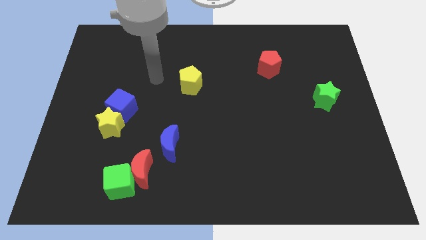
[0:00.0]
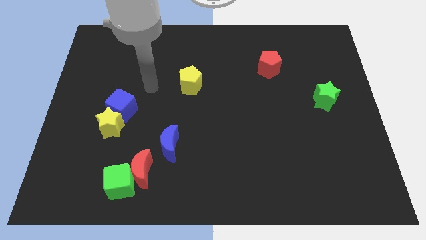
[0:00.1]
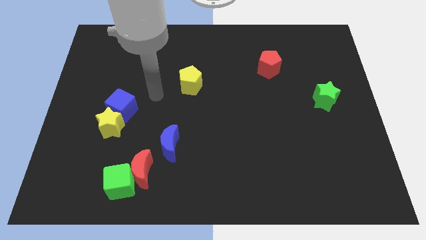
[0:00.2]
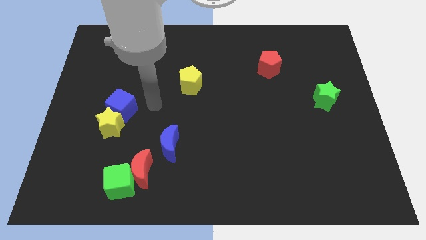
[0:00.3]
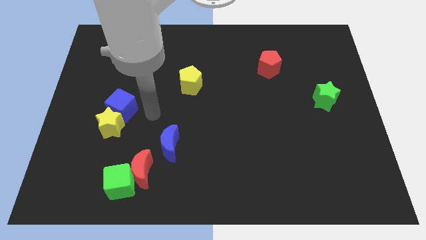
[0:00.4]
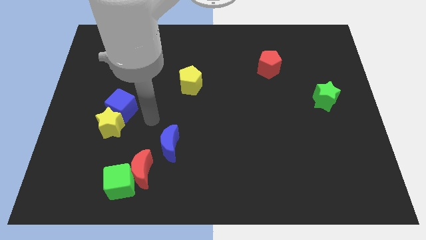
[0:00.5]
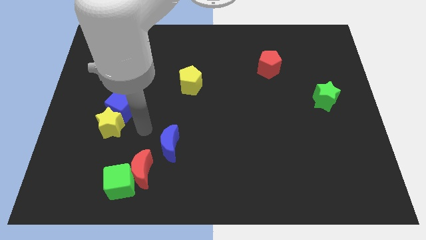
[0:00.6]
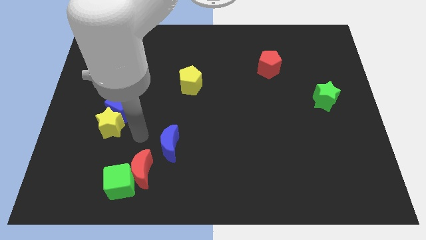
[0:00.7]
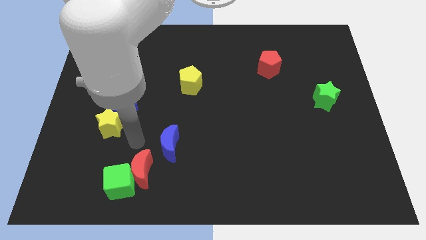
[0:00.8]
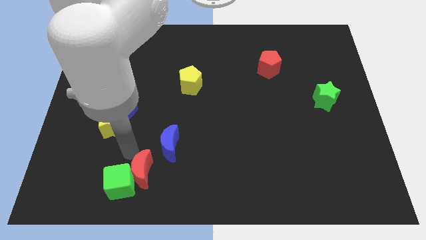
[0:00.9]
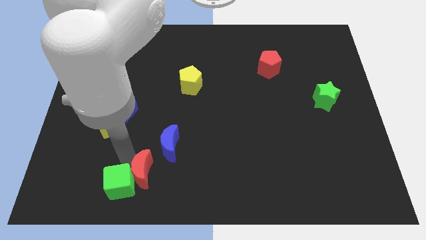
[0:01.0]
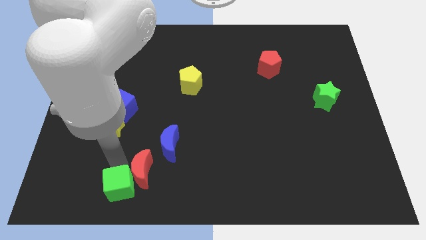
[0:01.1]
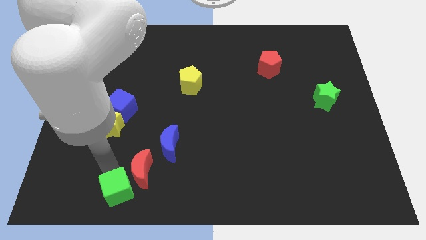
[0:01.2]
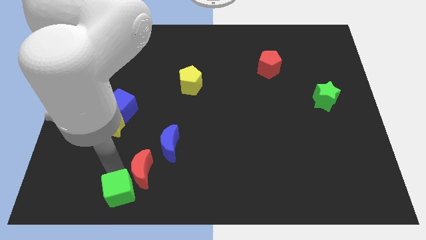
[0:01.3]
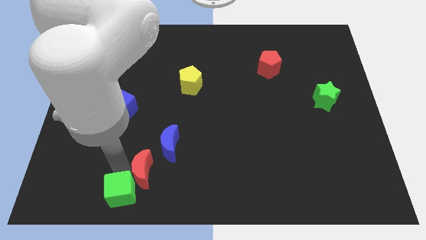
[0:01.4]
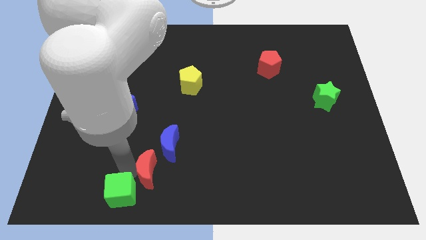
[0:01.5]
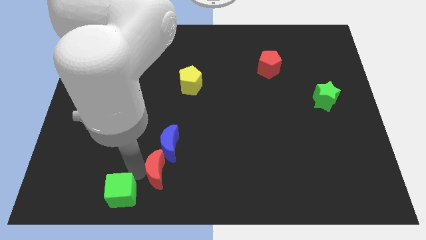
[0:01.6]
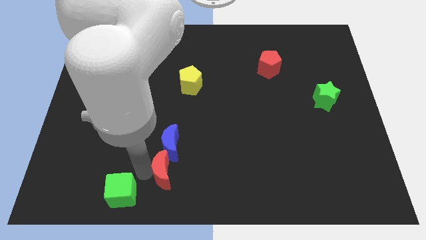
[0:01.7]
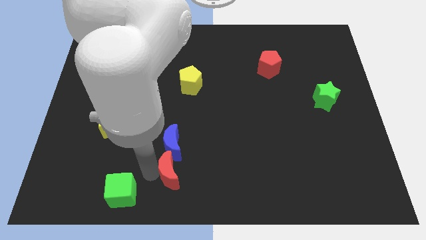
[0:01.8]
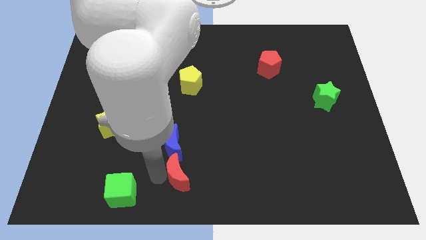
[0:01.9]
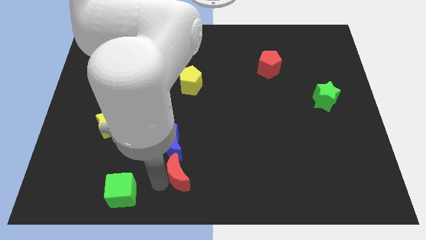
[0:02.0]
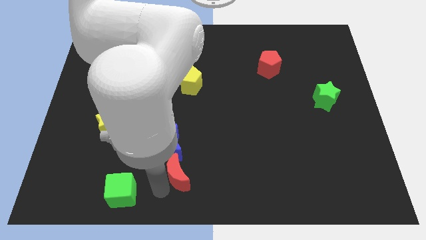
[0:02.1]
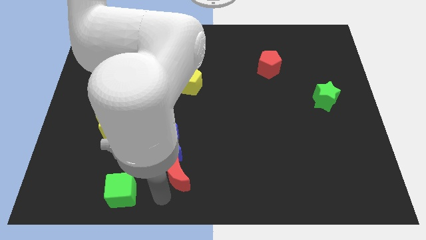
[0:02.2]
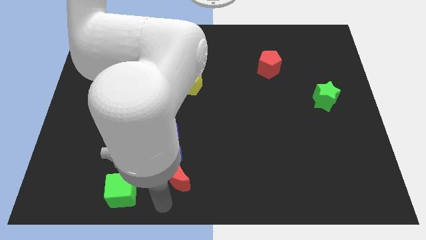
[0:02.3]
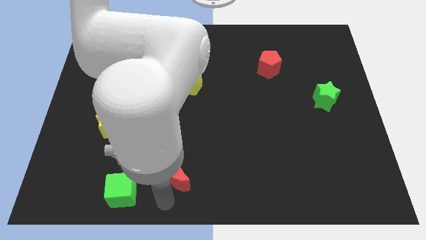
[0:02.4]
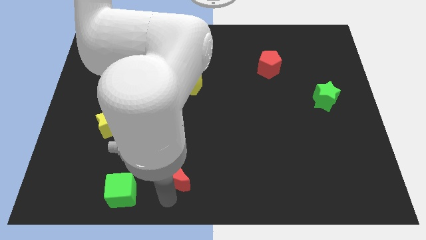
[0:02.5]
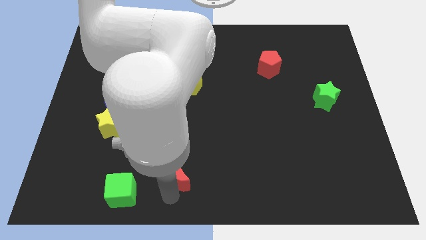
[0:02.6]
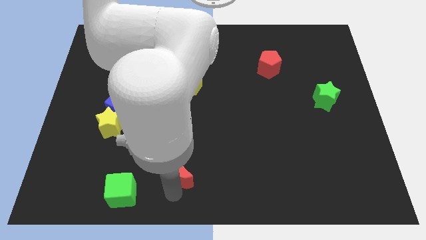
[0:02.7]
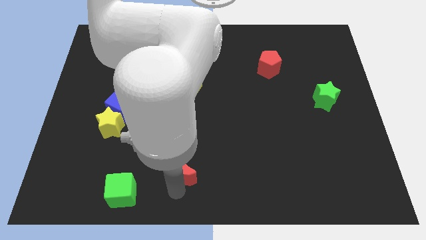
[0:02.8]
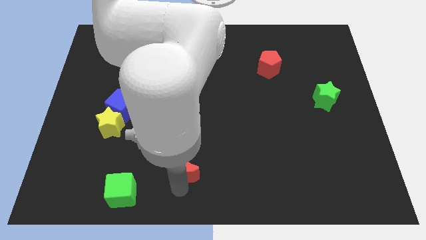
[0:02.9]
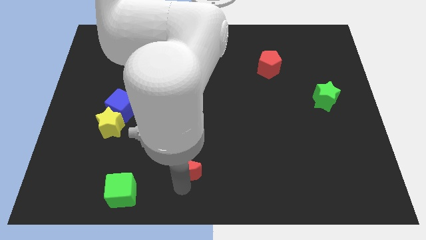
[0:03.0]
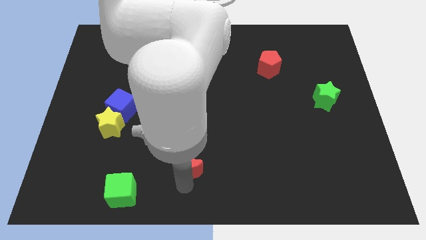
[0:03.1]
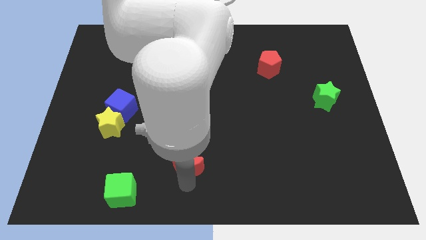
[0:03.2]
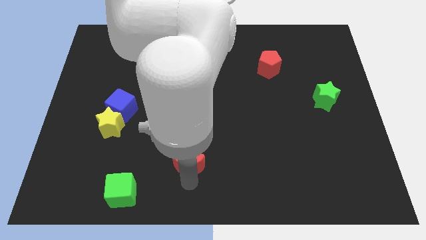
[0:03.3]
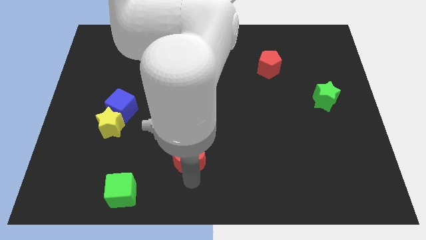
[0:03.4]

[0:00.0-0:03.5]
move the red moon diagonally up and to the right slightly

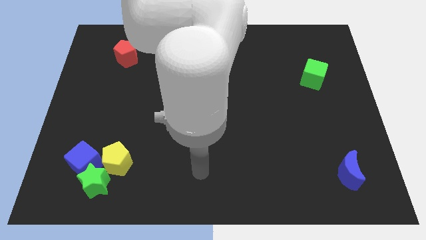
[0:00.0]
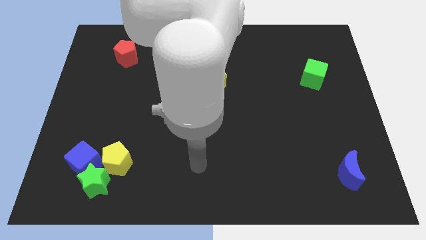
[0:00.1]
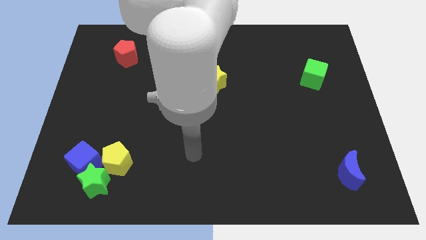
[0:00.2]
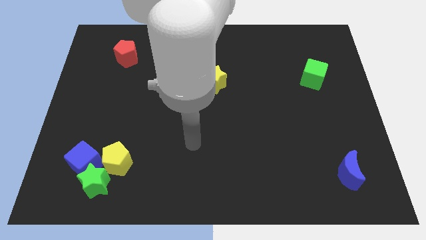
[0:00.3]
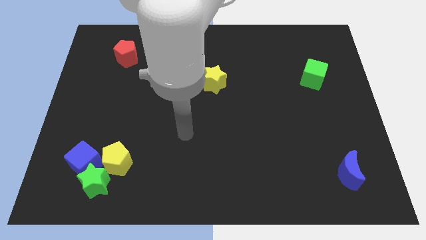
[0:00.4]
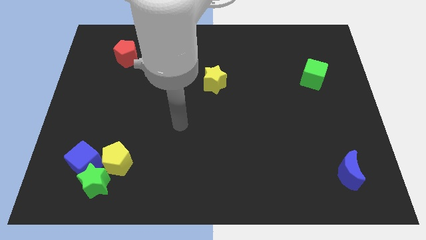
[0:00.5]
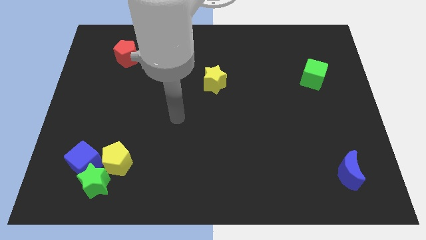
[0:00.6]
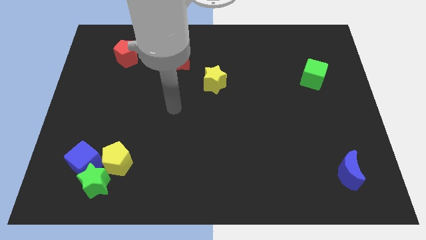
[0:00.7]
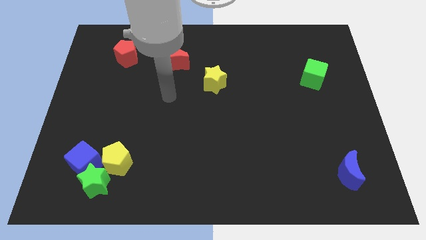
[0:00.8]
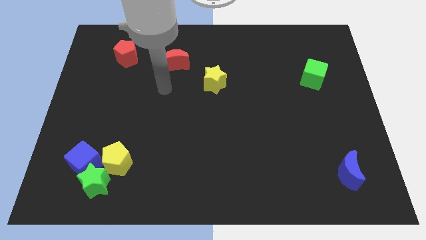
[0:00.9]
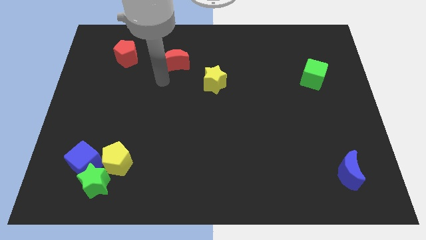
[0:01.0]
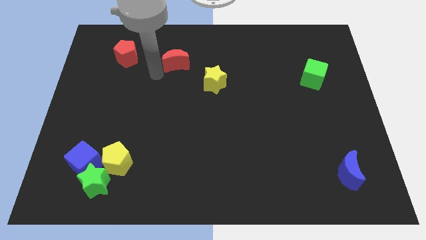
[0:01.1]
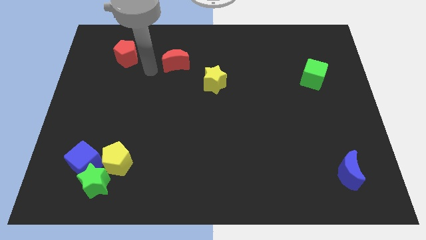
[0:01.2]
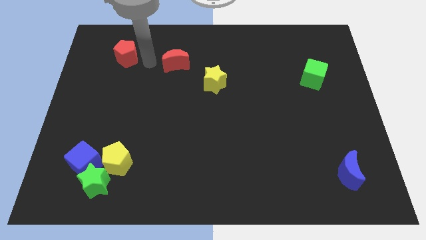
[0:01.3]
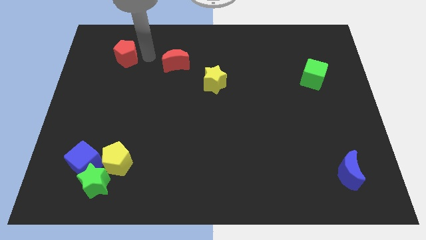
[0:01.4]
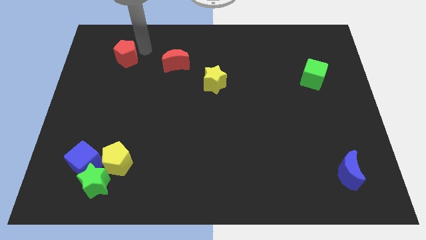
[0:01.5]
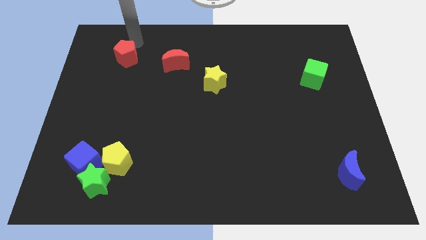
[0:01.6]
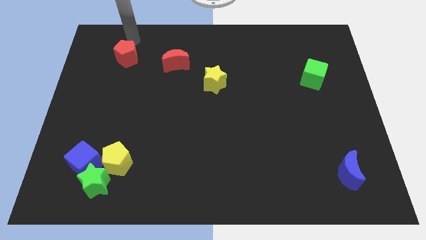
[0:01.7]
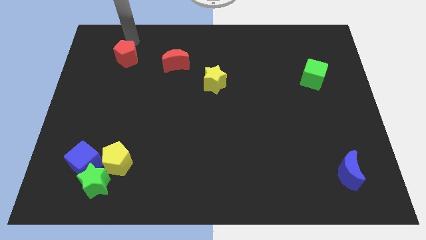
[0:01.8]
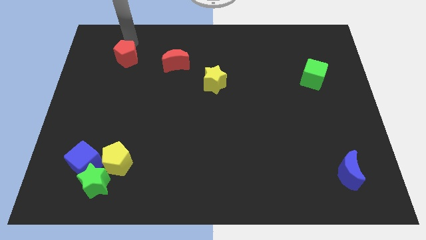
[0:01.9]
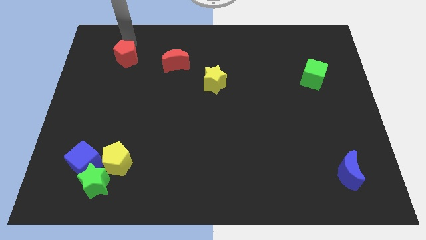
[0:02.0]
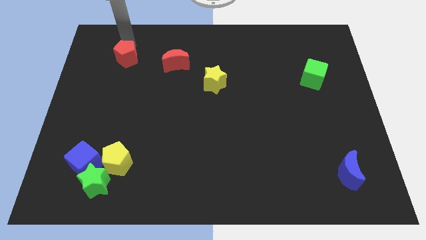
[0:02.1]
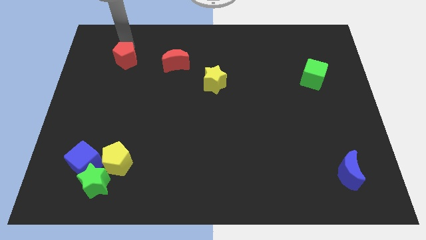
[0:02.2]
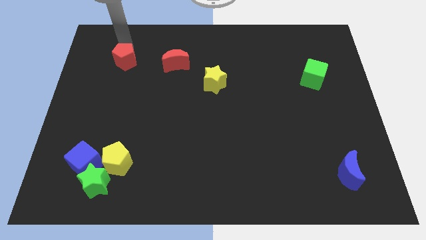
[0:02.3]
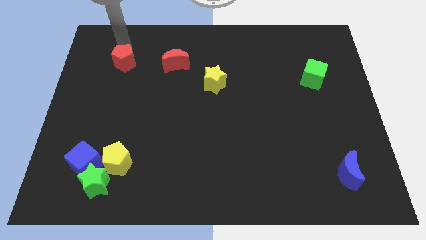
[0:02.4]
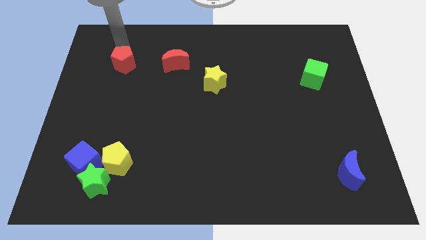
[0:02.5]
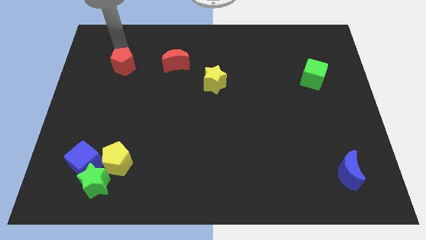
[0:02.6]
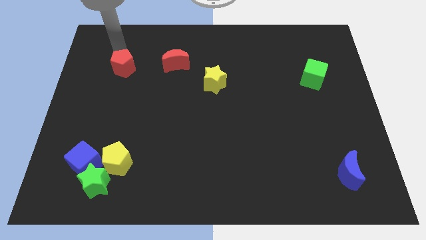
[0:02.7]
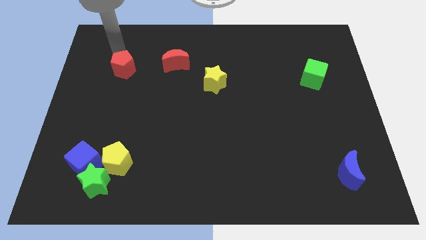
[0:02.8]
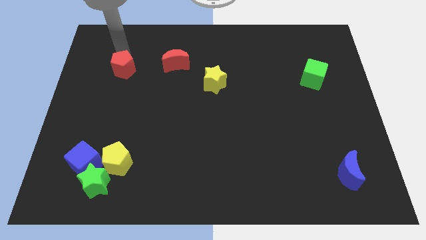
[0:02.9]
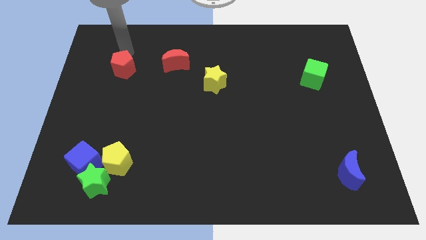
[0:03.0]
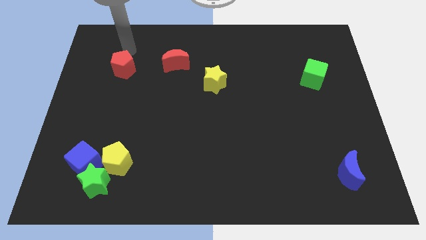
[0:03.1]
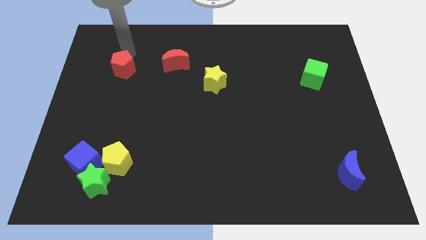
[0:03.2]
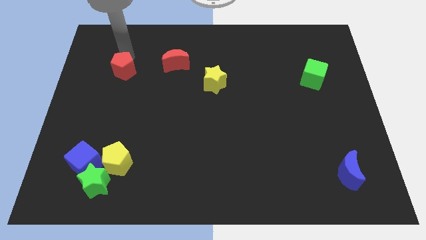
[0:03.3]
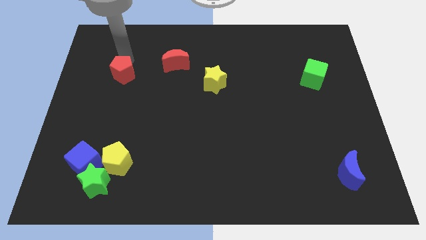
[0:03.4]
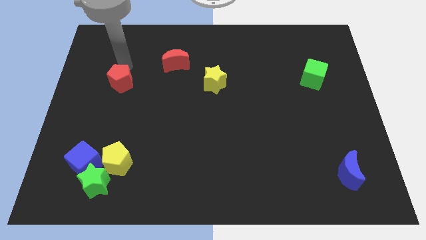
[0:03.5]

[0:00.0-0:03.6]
push the red pentagon a bit down

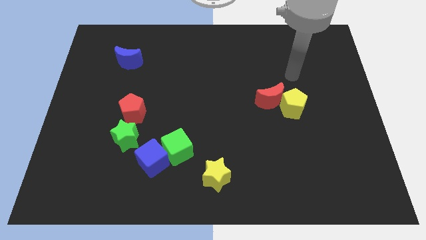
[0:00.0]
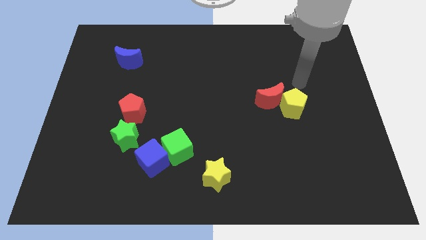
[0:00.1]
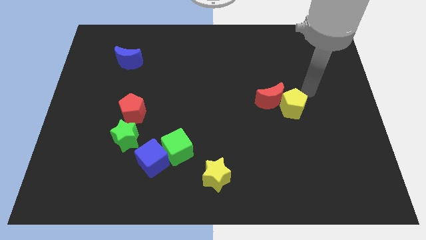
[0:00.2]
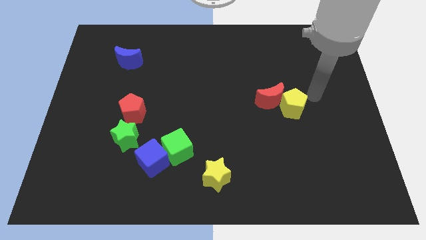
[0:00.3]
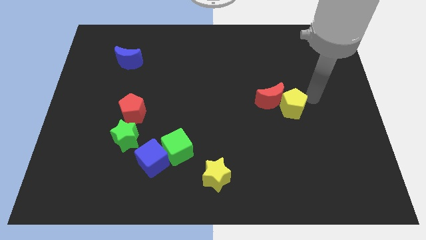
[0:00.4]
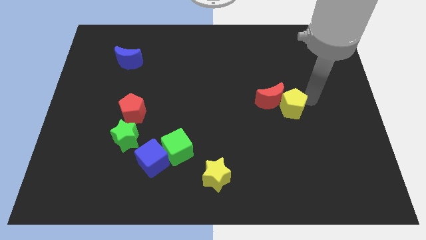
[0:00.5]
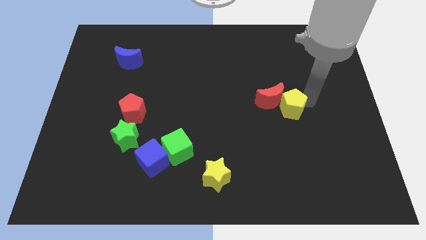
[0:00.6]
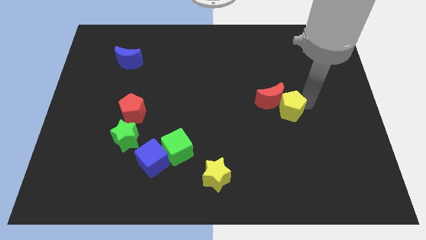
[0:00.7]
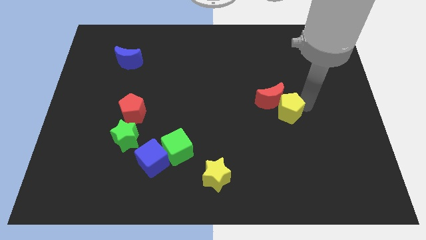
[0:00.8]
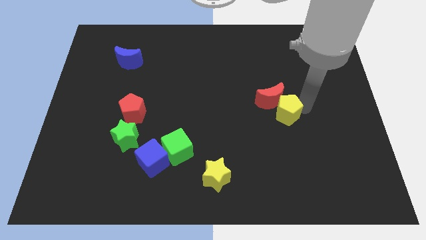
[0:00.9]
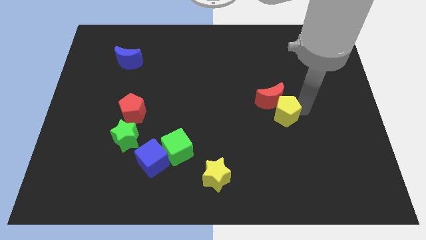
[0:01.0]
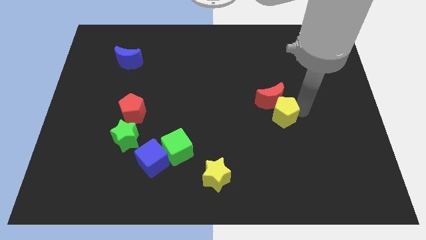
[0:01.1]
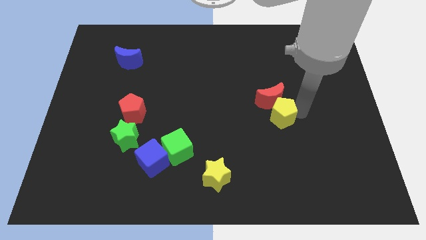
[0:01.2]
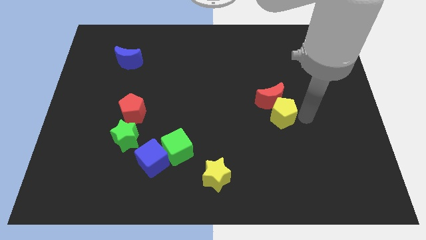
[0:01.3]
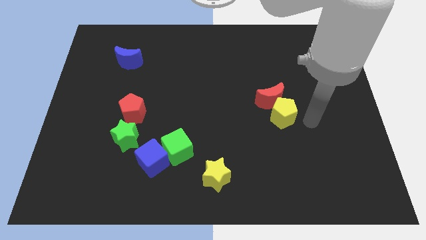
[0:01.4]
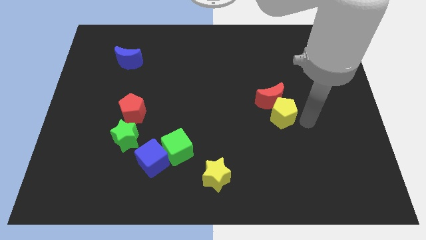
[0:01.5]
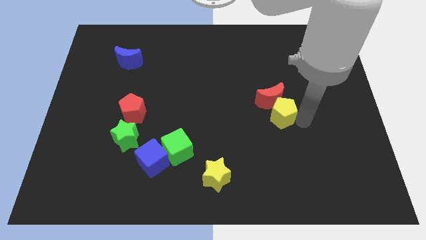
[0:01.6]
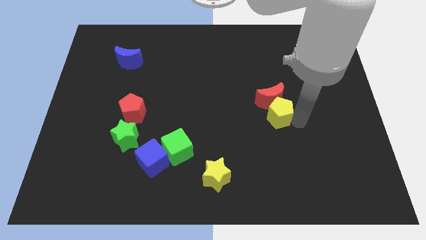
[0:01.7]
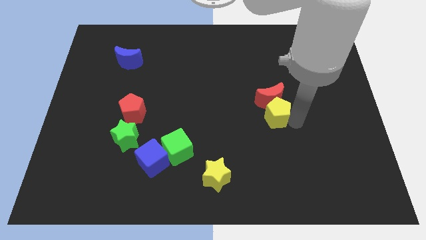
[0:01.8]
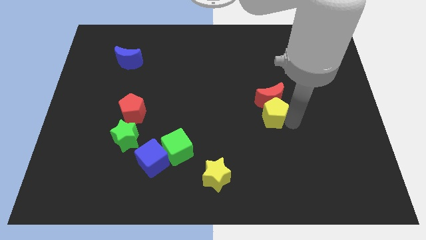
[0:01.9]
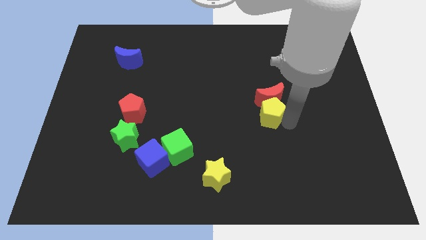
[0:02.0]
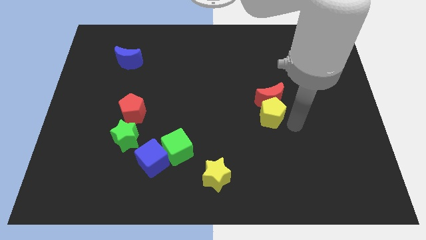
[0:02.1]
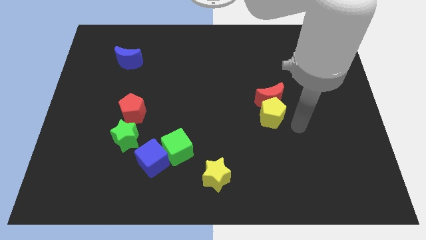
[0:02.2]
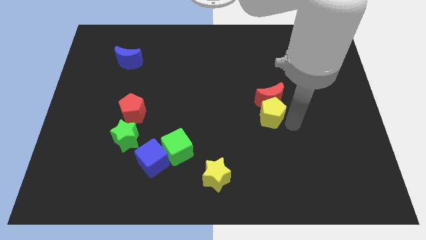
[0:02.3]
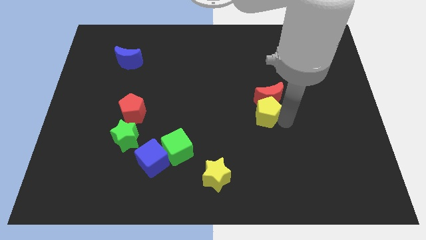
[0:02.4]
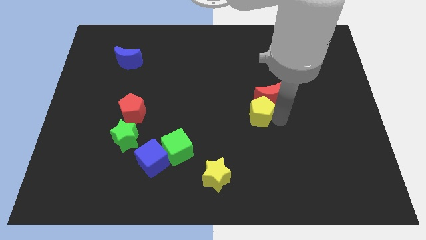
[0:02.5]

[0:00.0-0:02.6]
slightly push the yellow pentagon left
